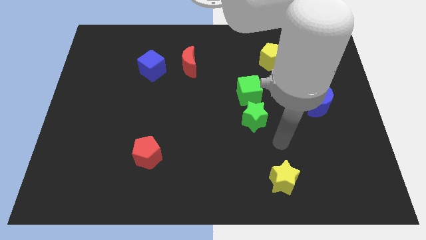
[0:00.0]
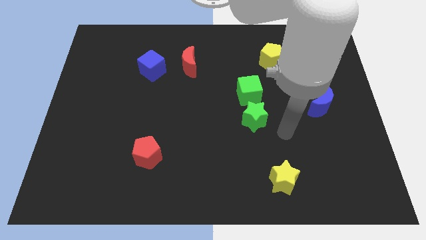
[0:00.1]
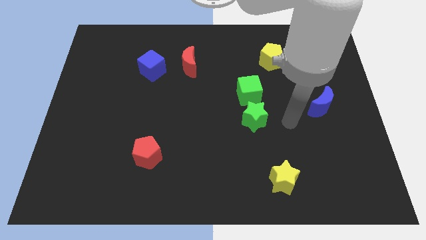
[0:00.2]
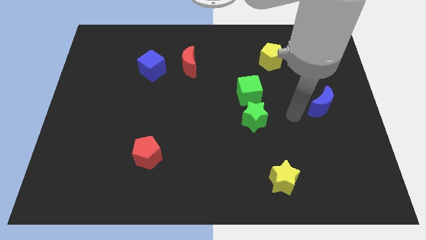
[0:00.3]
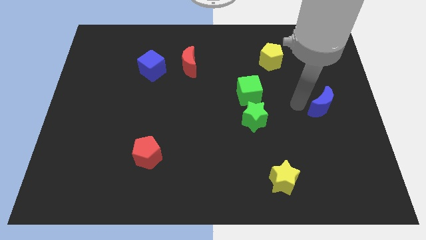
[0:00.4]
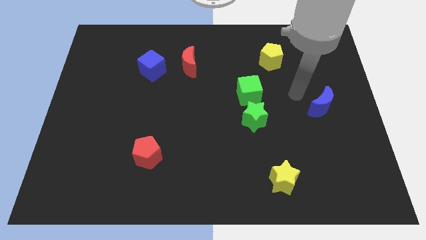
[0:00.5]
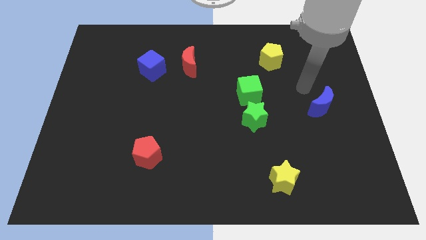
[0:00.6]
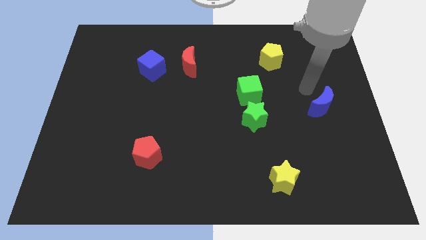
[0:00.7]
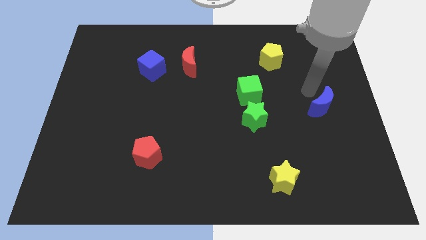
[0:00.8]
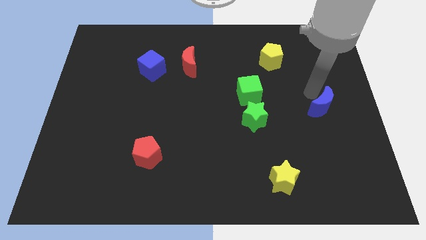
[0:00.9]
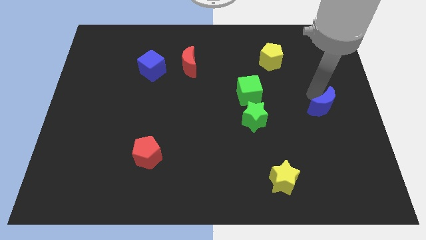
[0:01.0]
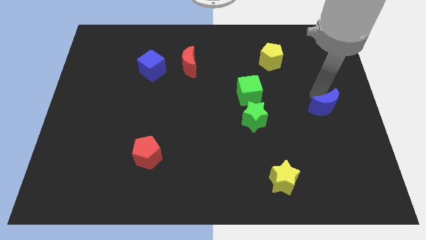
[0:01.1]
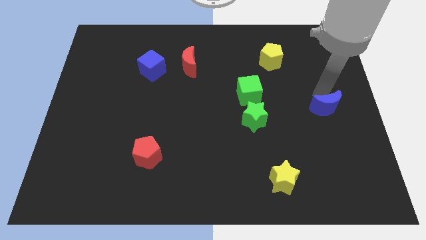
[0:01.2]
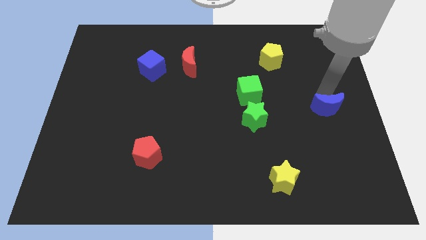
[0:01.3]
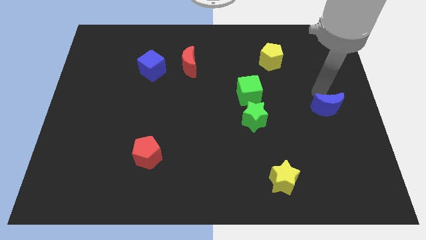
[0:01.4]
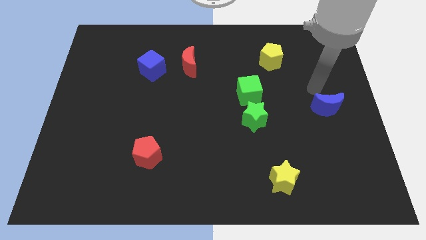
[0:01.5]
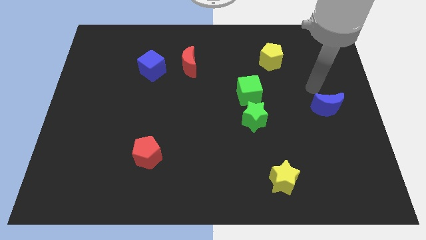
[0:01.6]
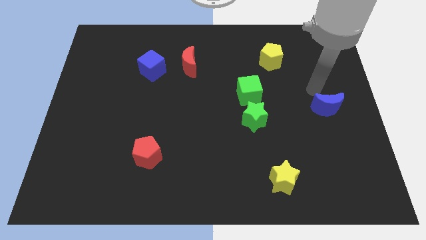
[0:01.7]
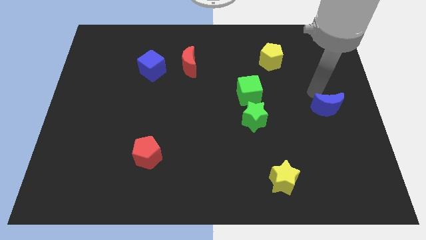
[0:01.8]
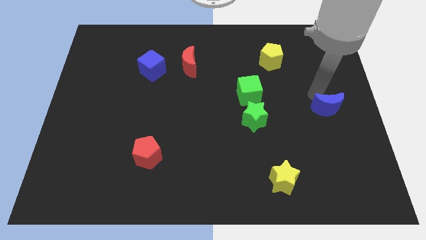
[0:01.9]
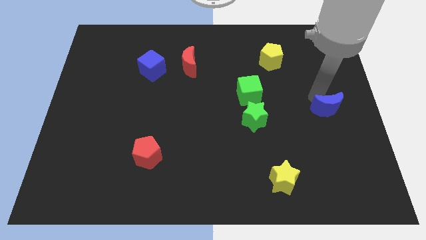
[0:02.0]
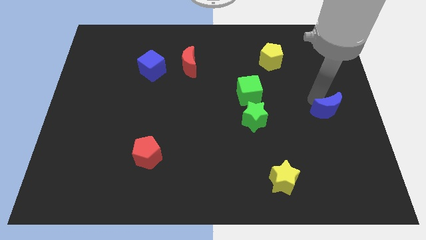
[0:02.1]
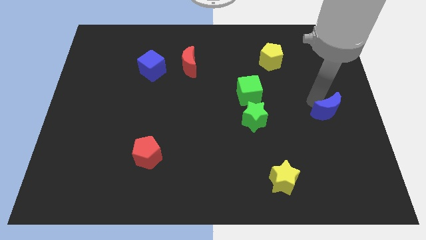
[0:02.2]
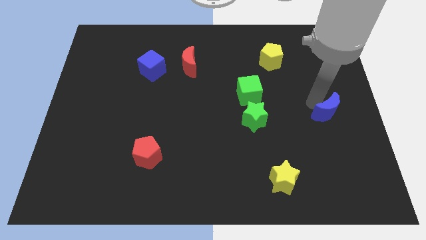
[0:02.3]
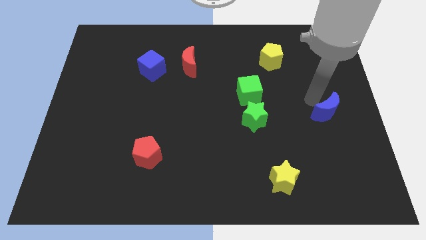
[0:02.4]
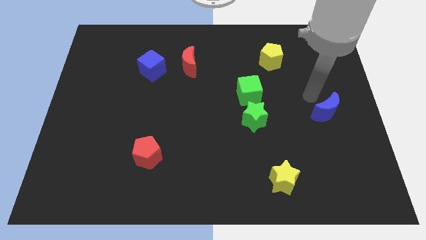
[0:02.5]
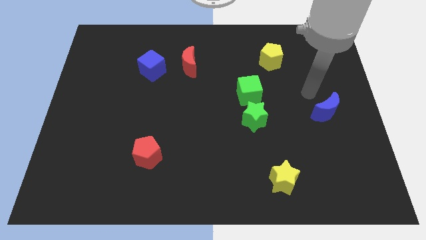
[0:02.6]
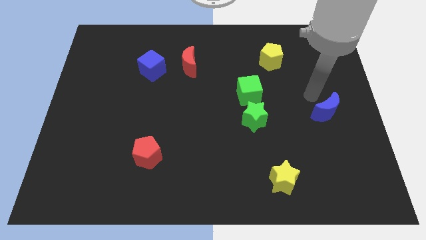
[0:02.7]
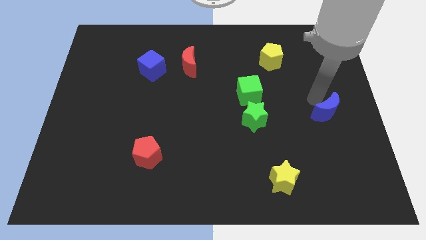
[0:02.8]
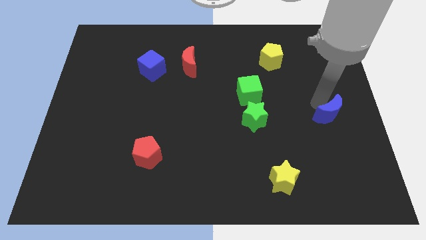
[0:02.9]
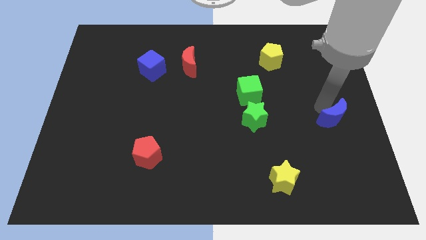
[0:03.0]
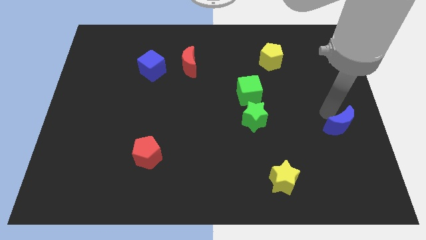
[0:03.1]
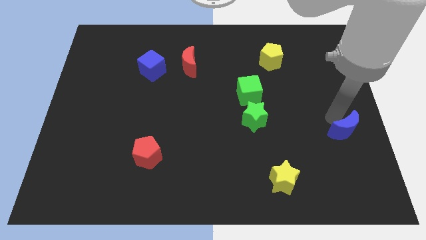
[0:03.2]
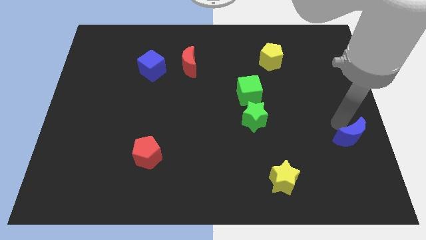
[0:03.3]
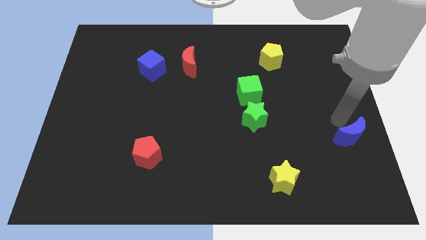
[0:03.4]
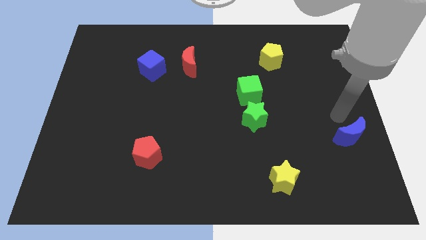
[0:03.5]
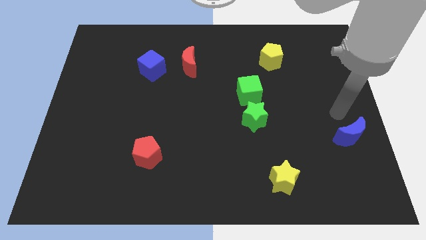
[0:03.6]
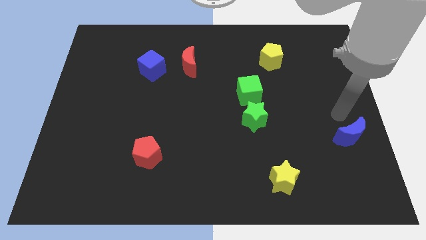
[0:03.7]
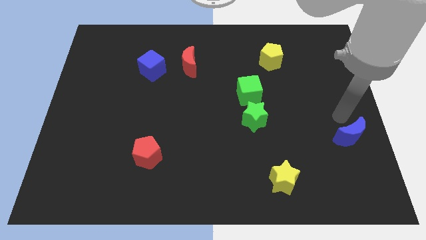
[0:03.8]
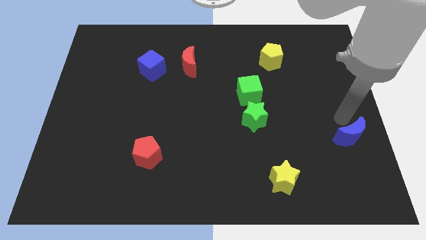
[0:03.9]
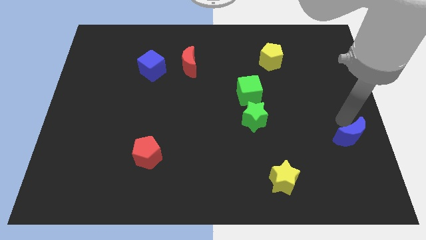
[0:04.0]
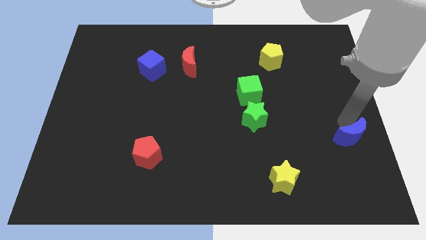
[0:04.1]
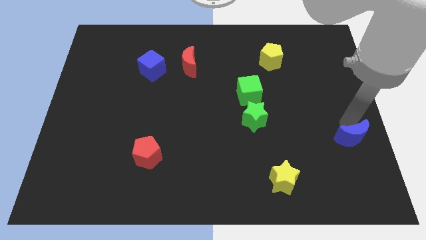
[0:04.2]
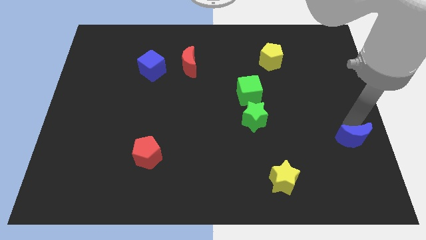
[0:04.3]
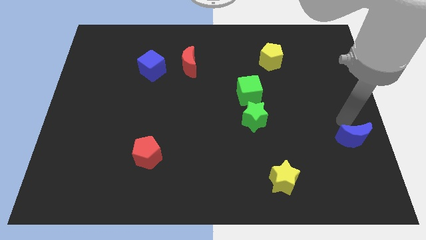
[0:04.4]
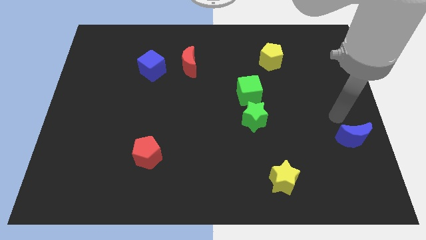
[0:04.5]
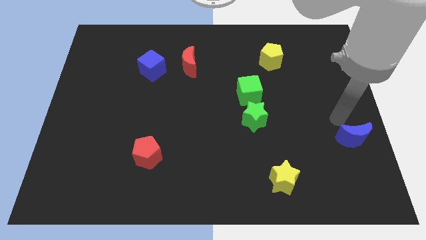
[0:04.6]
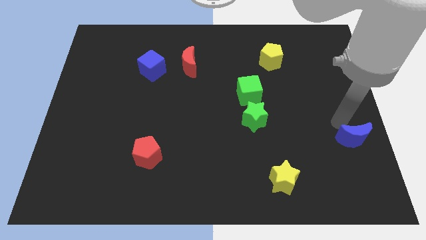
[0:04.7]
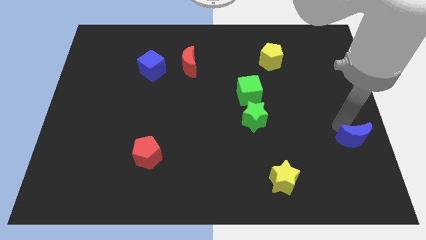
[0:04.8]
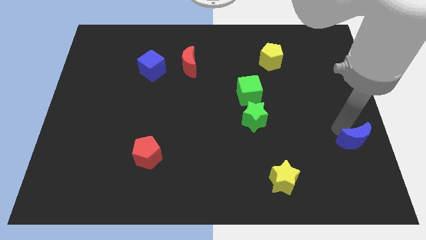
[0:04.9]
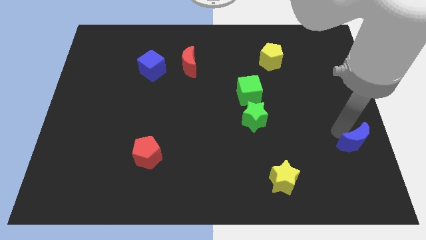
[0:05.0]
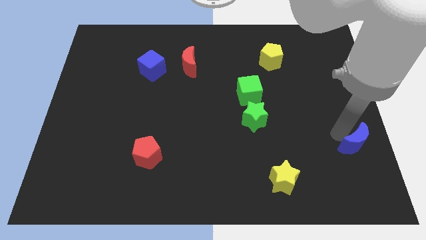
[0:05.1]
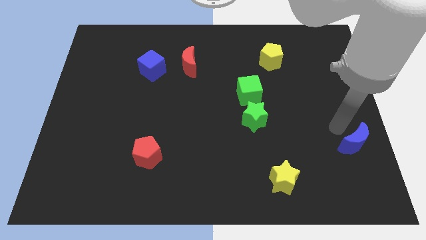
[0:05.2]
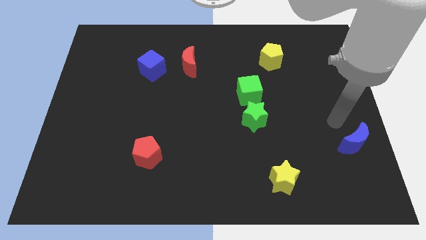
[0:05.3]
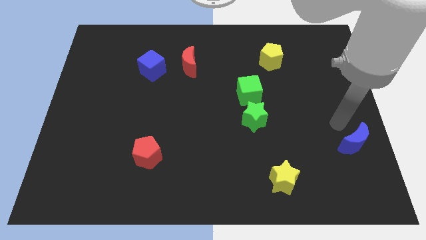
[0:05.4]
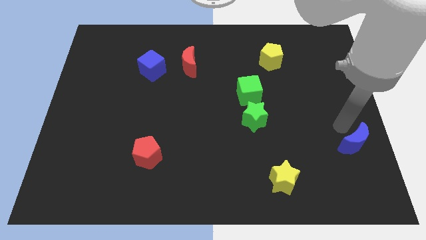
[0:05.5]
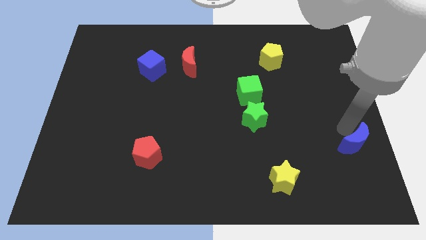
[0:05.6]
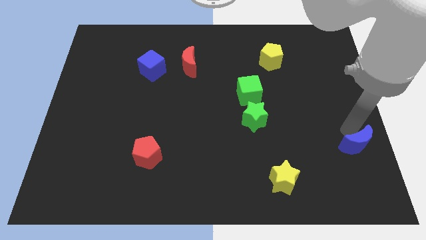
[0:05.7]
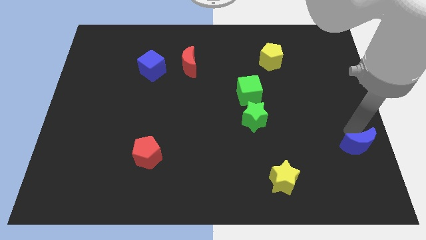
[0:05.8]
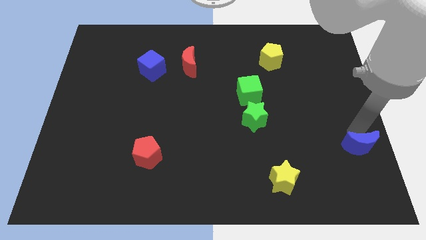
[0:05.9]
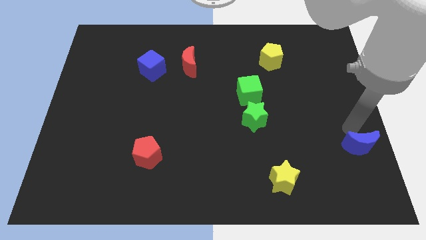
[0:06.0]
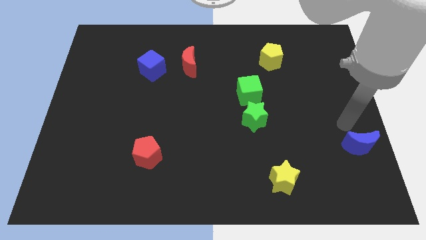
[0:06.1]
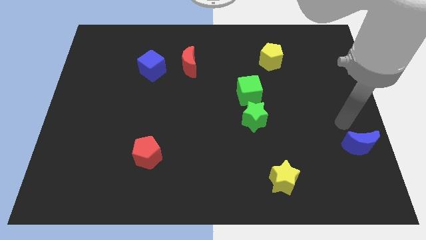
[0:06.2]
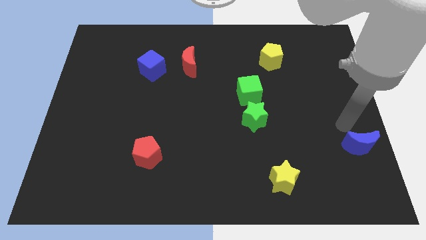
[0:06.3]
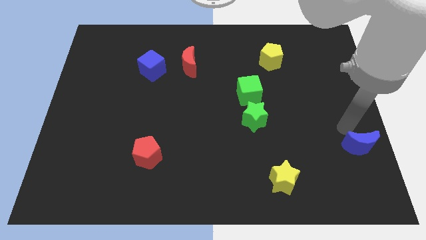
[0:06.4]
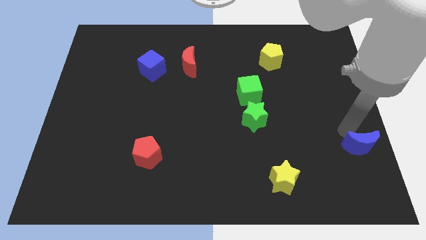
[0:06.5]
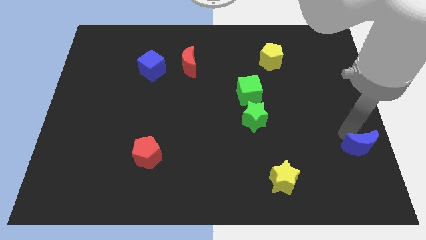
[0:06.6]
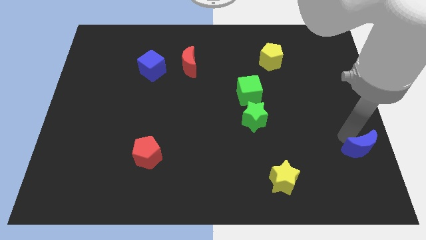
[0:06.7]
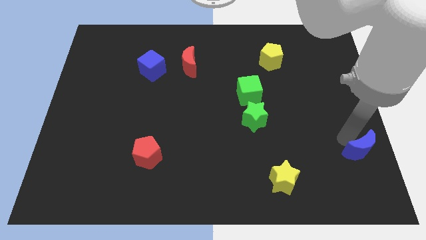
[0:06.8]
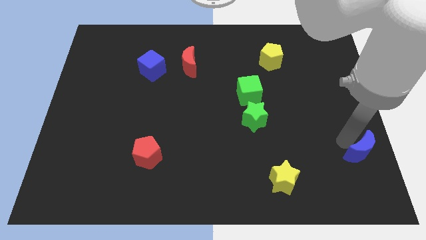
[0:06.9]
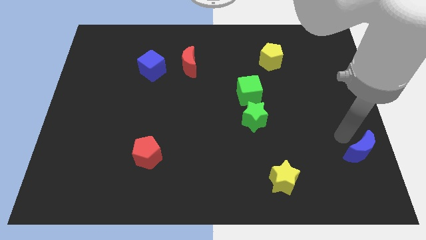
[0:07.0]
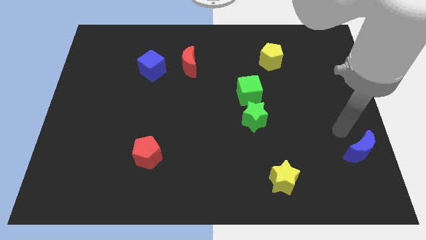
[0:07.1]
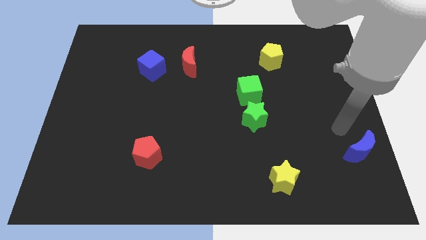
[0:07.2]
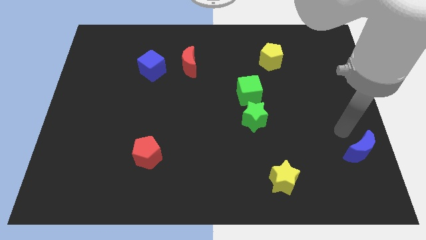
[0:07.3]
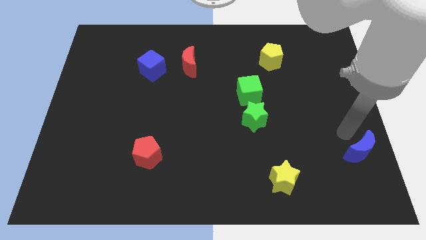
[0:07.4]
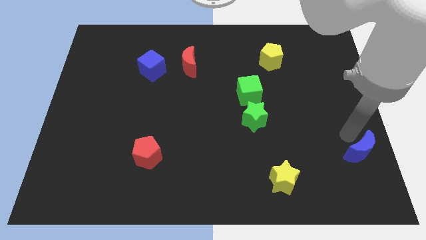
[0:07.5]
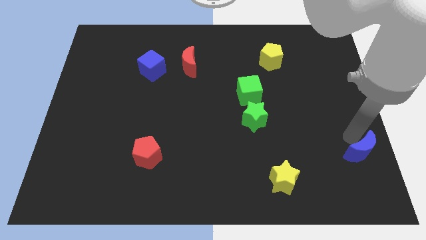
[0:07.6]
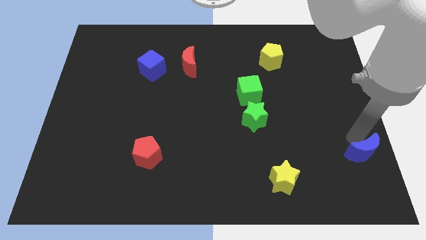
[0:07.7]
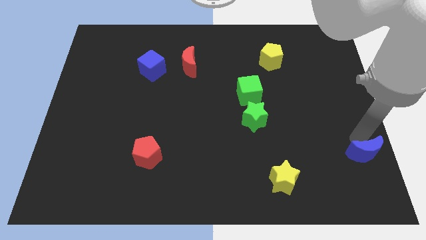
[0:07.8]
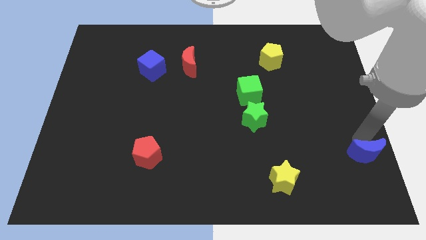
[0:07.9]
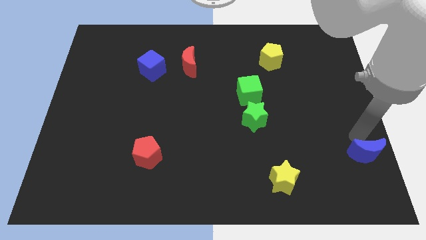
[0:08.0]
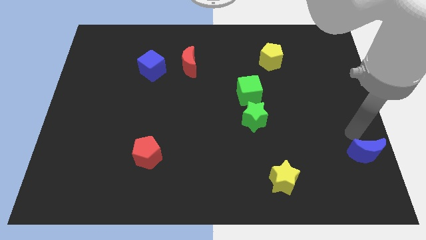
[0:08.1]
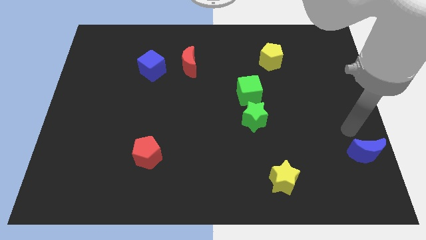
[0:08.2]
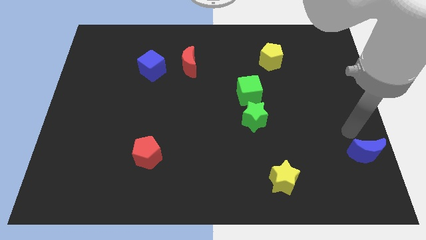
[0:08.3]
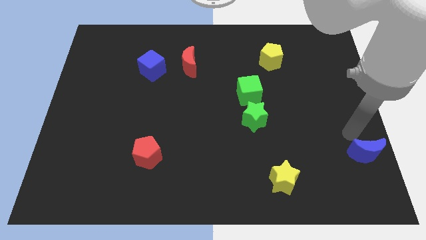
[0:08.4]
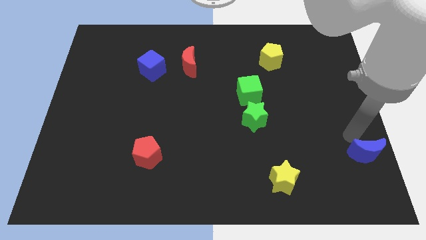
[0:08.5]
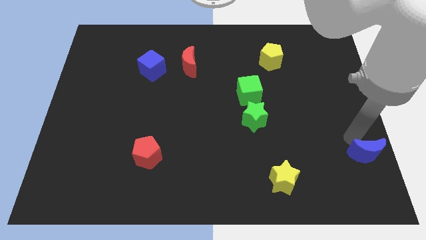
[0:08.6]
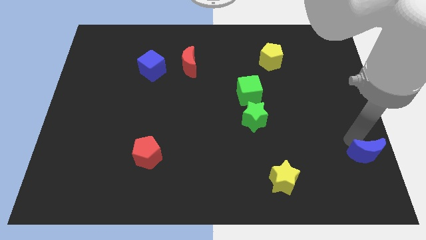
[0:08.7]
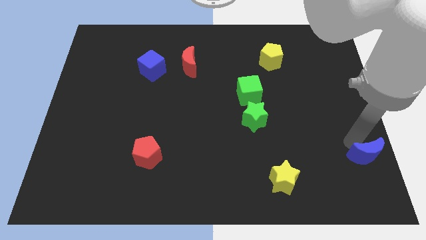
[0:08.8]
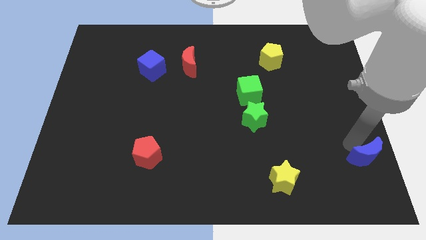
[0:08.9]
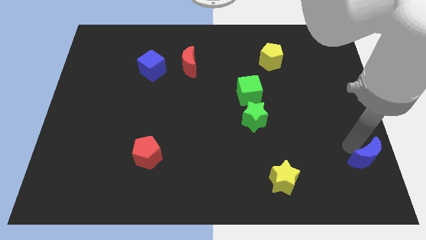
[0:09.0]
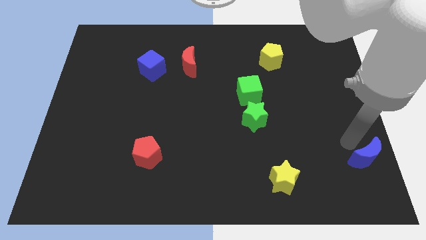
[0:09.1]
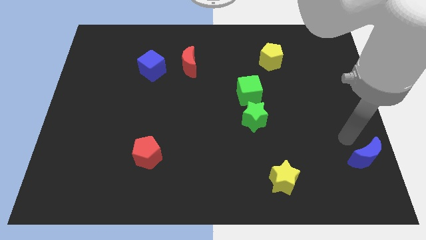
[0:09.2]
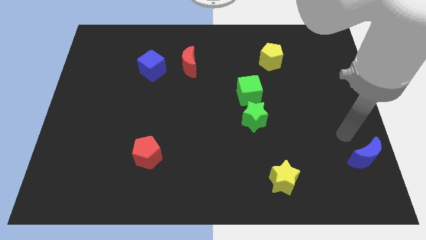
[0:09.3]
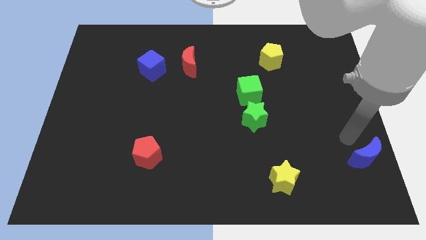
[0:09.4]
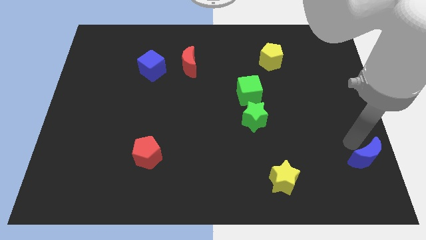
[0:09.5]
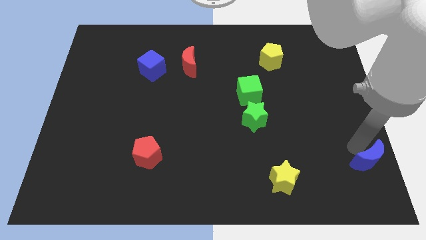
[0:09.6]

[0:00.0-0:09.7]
push the blue moon to the bottom right corner
